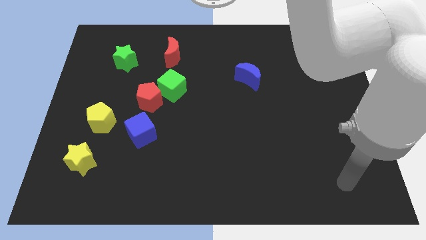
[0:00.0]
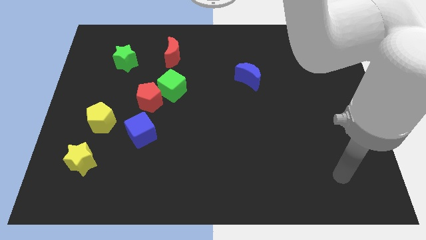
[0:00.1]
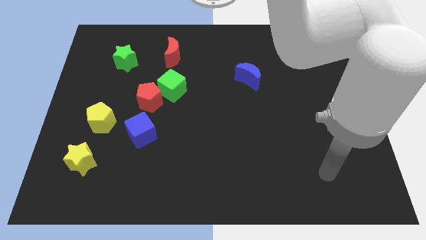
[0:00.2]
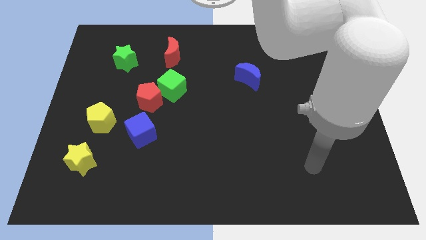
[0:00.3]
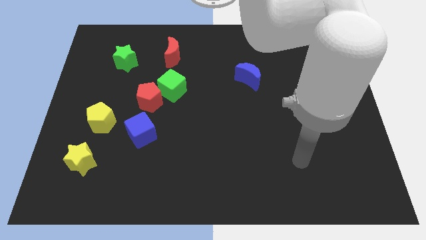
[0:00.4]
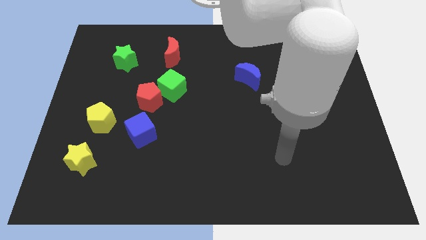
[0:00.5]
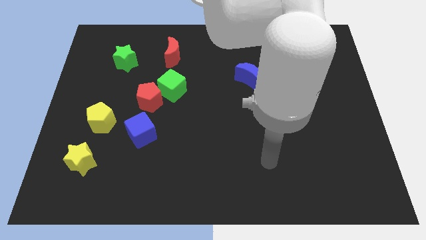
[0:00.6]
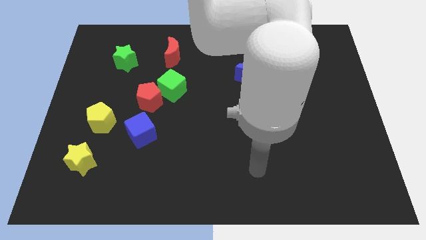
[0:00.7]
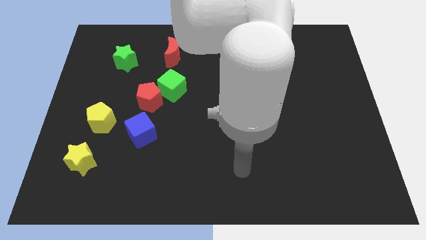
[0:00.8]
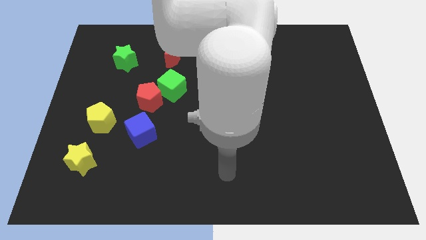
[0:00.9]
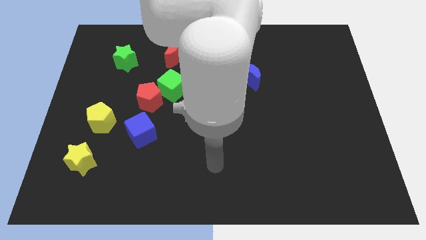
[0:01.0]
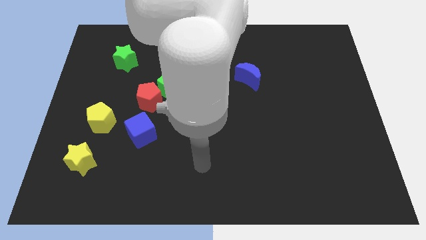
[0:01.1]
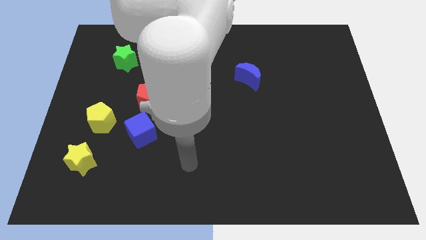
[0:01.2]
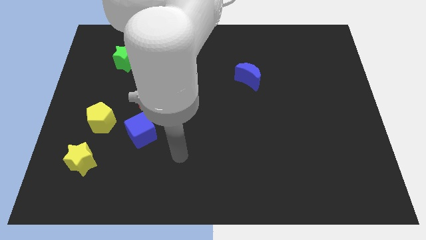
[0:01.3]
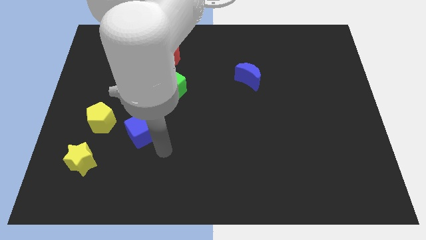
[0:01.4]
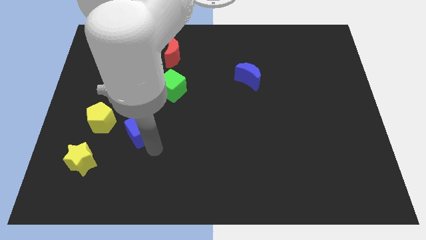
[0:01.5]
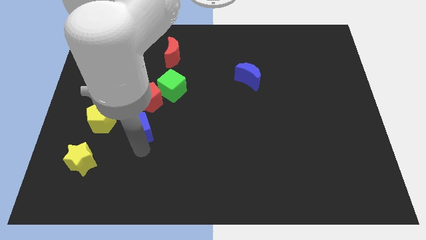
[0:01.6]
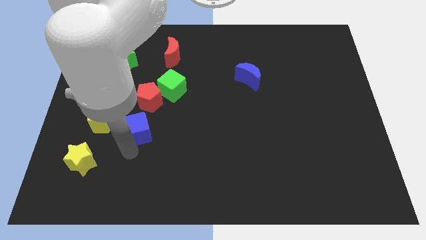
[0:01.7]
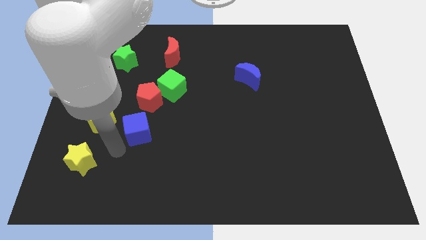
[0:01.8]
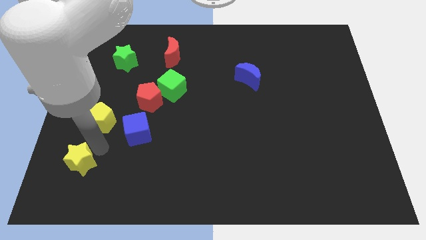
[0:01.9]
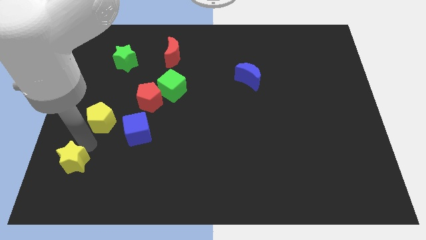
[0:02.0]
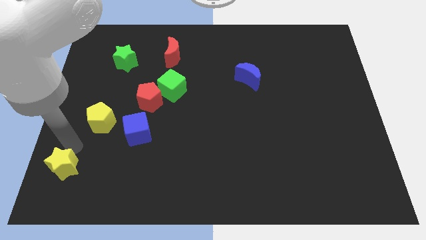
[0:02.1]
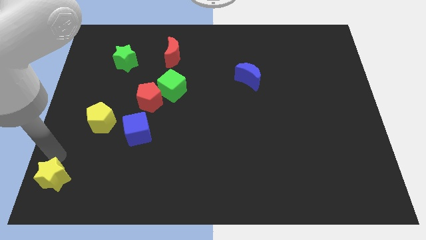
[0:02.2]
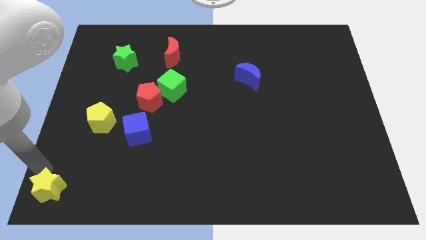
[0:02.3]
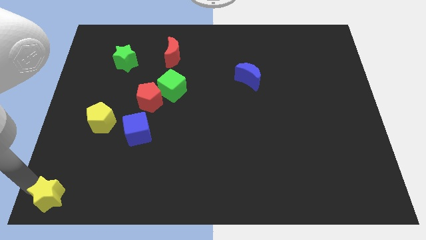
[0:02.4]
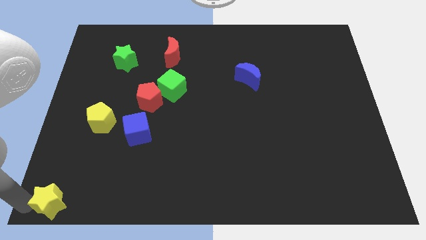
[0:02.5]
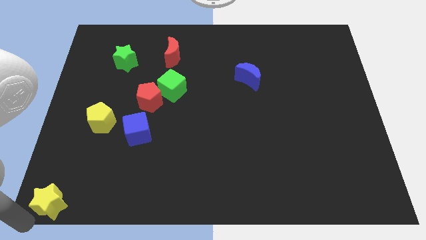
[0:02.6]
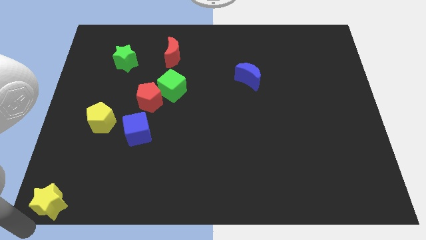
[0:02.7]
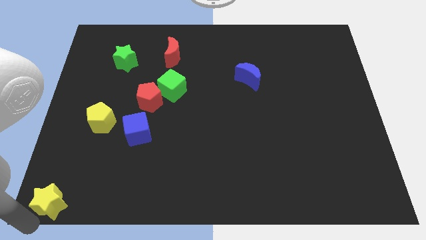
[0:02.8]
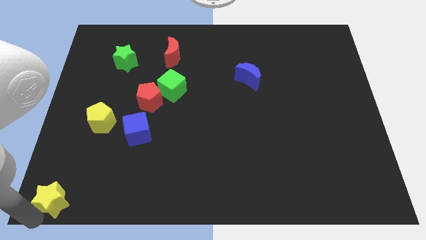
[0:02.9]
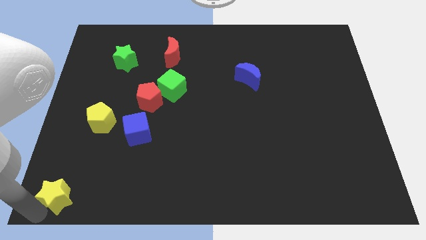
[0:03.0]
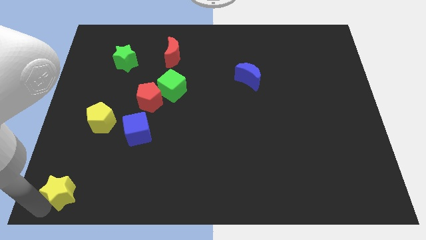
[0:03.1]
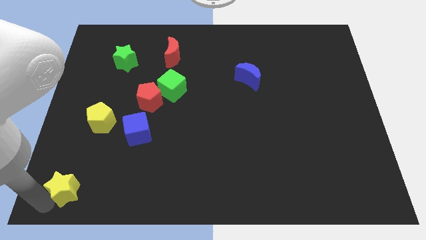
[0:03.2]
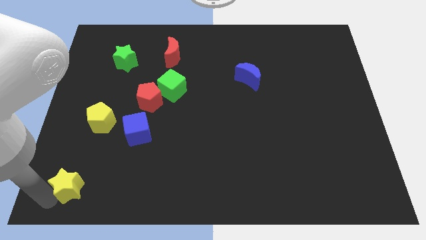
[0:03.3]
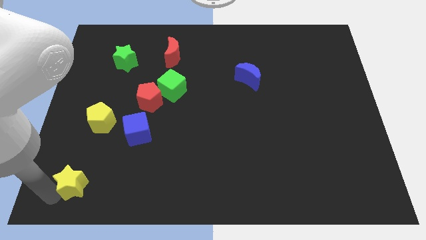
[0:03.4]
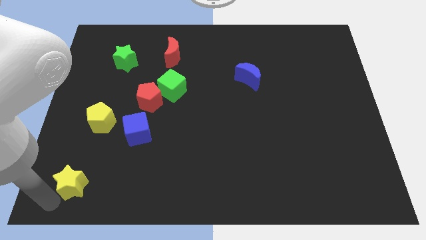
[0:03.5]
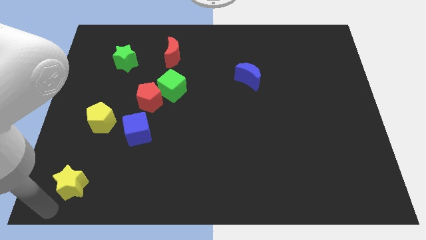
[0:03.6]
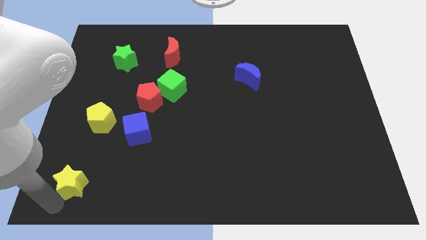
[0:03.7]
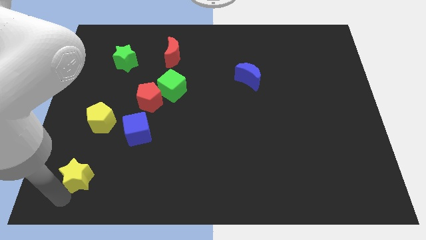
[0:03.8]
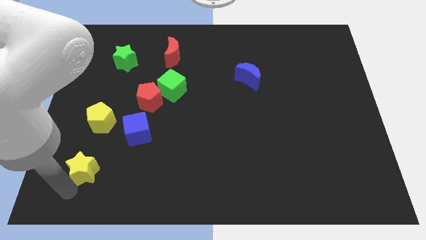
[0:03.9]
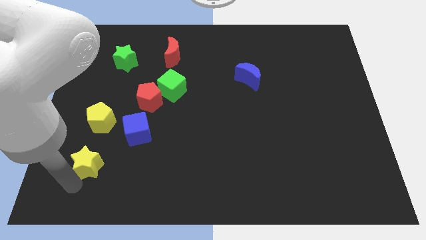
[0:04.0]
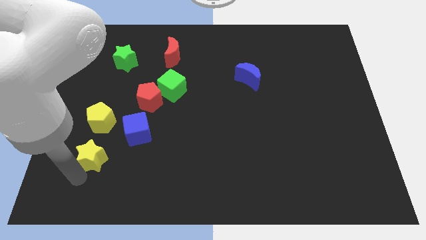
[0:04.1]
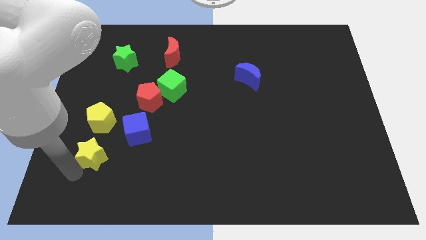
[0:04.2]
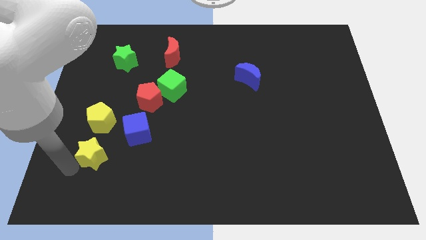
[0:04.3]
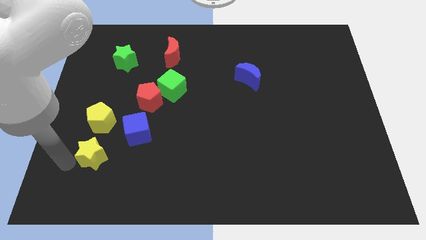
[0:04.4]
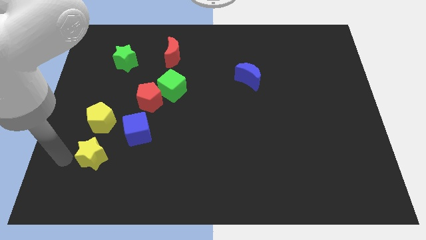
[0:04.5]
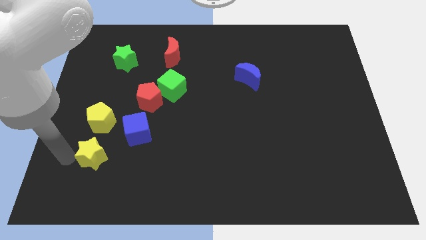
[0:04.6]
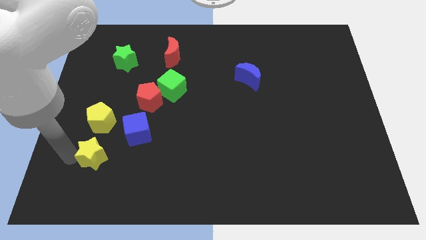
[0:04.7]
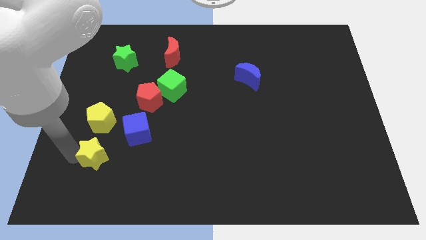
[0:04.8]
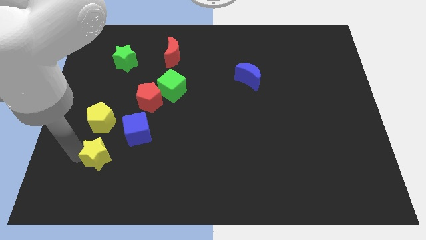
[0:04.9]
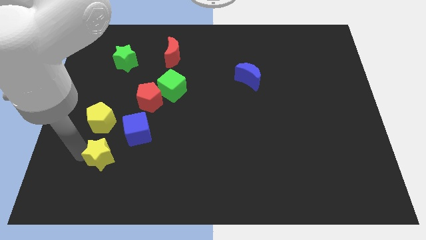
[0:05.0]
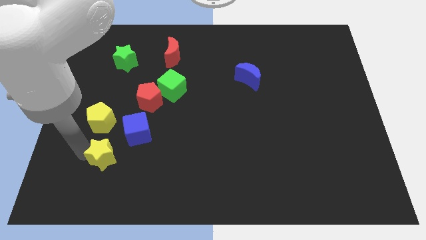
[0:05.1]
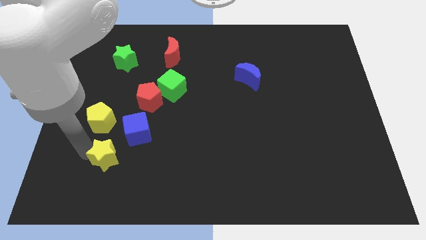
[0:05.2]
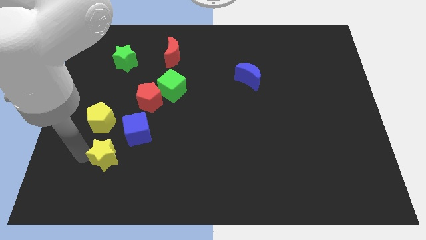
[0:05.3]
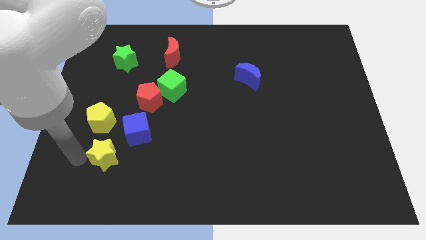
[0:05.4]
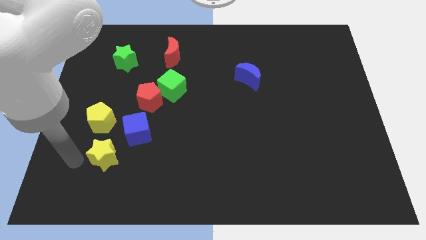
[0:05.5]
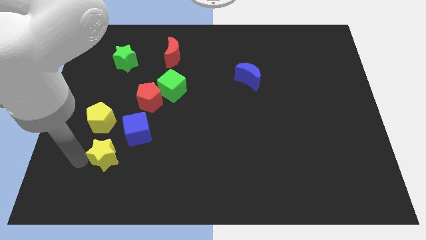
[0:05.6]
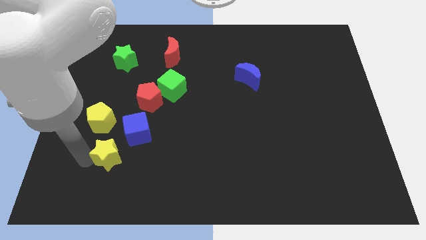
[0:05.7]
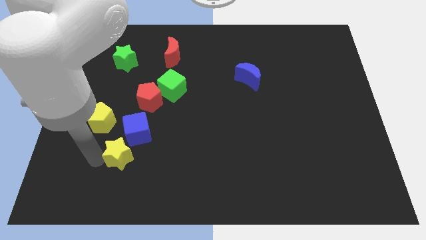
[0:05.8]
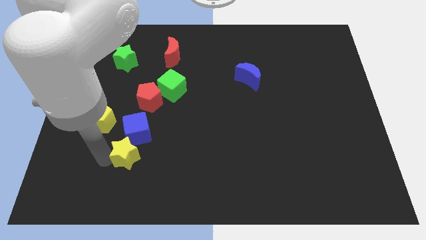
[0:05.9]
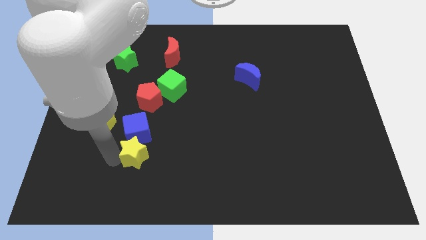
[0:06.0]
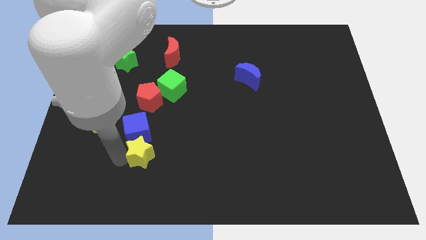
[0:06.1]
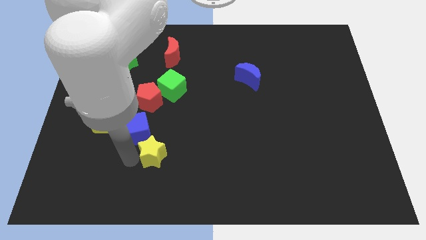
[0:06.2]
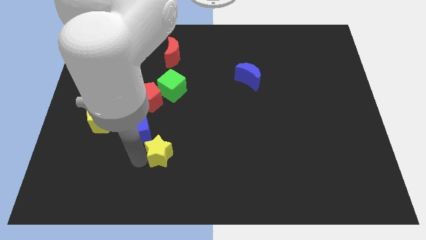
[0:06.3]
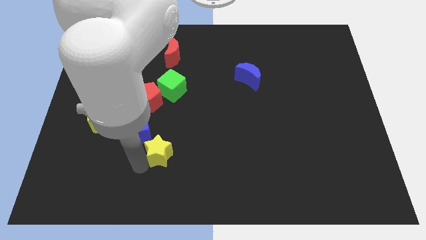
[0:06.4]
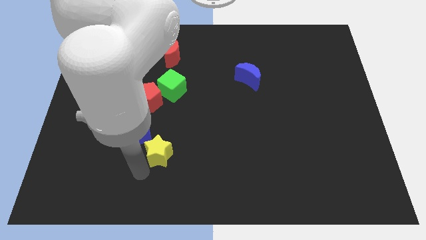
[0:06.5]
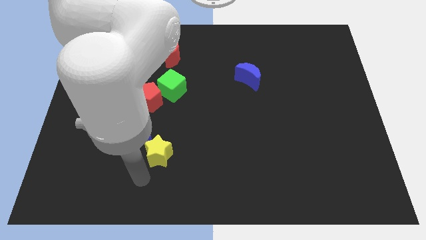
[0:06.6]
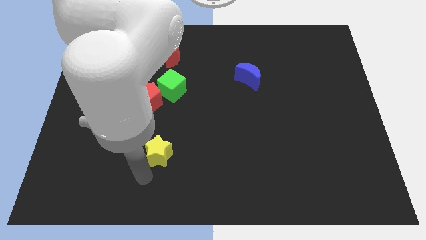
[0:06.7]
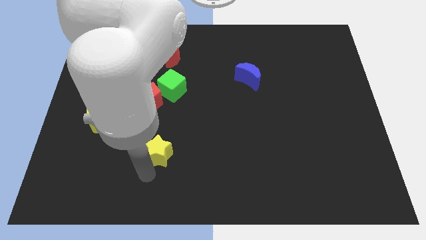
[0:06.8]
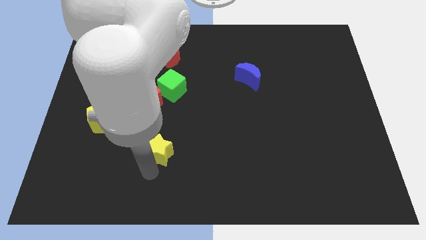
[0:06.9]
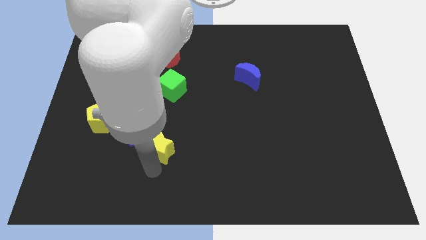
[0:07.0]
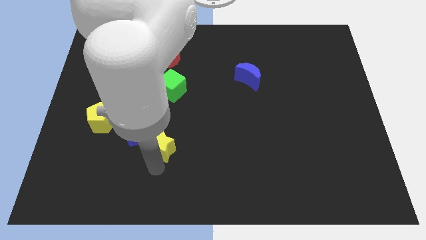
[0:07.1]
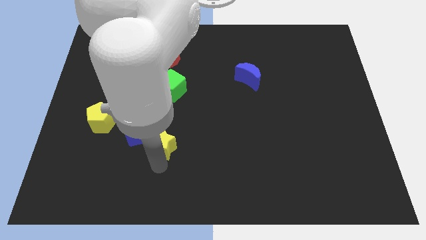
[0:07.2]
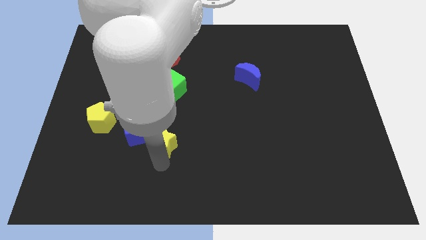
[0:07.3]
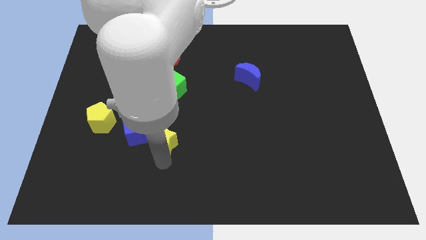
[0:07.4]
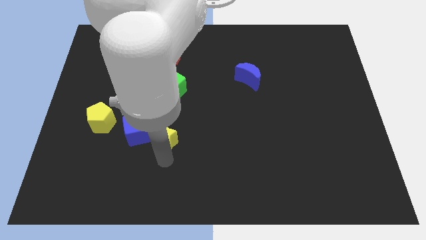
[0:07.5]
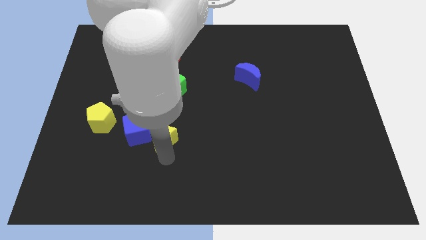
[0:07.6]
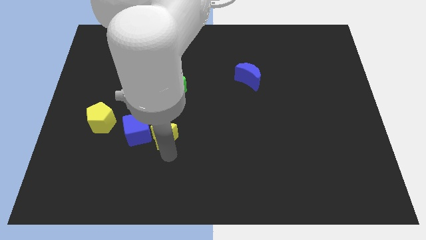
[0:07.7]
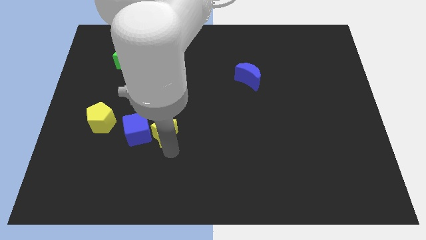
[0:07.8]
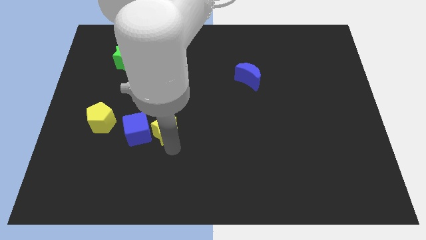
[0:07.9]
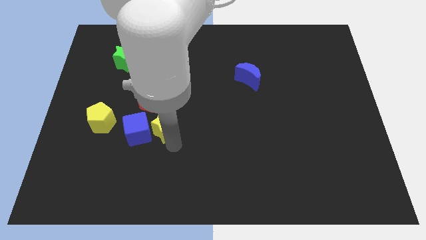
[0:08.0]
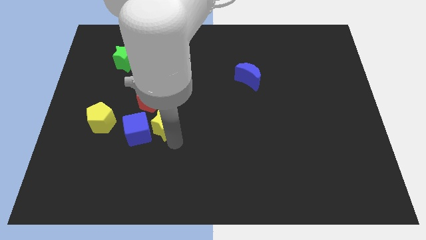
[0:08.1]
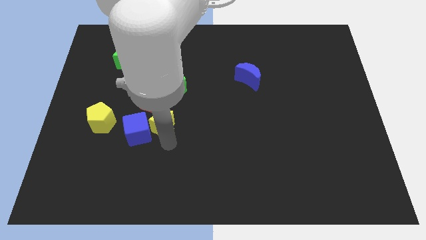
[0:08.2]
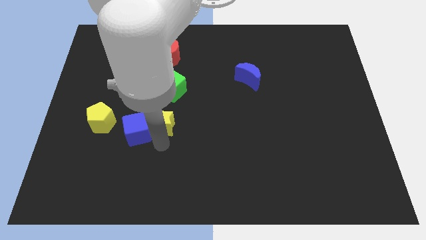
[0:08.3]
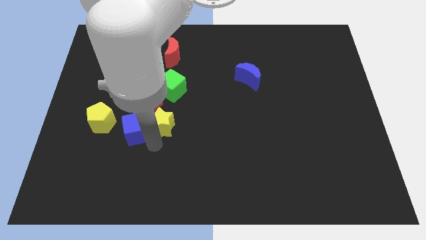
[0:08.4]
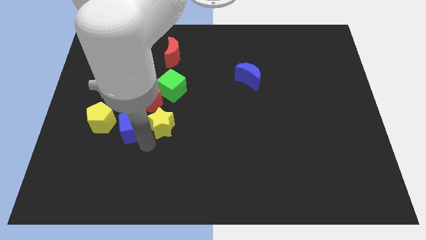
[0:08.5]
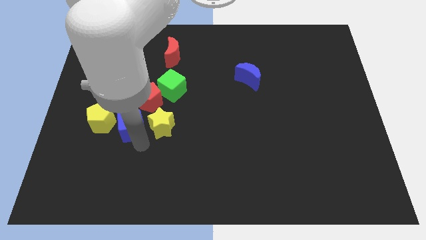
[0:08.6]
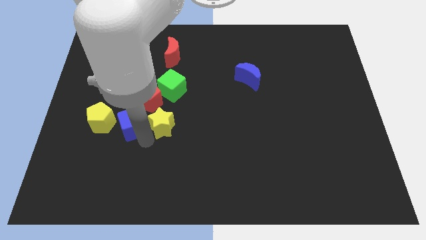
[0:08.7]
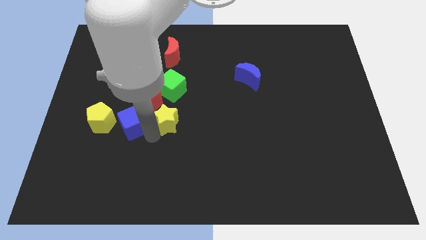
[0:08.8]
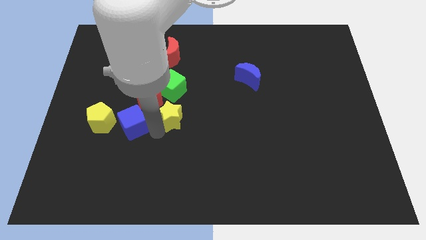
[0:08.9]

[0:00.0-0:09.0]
move the yellow star diagonally upwards and to the right
